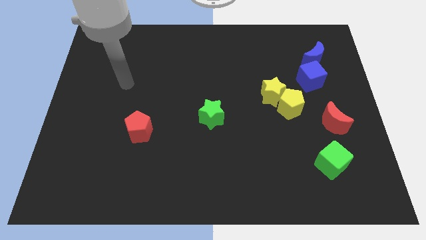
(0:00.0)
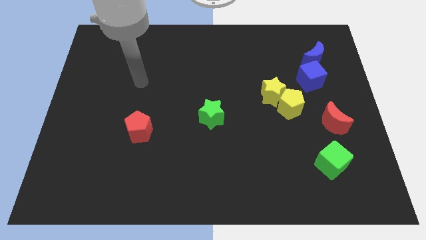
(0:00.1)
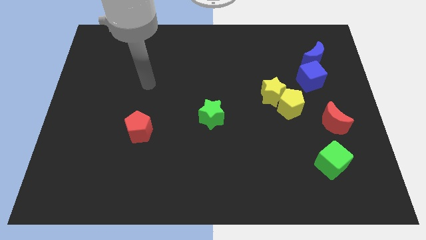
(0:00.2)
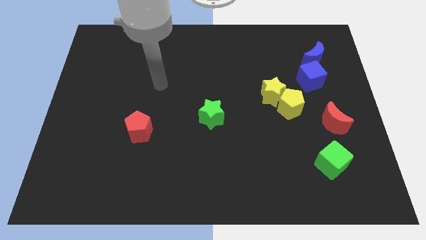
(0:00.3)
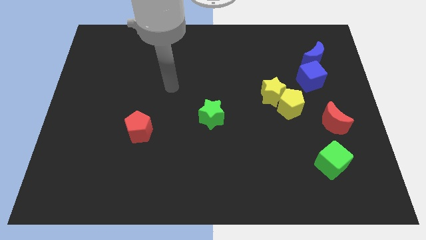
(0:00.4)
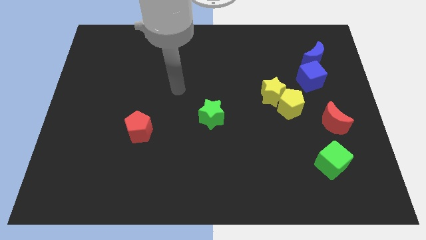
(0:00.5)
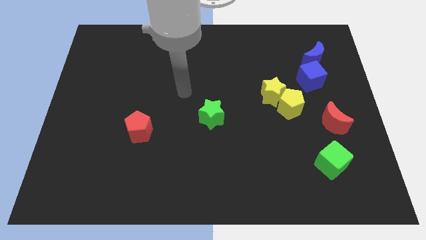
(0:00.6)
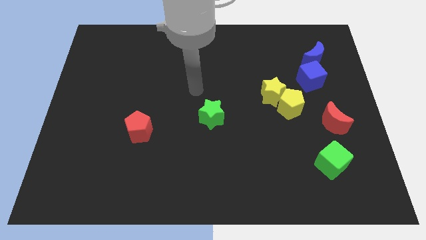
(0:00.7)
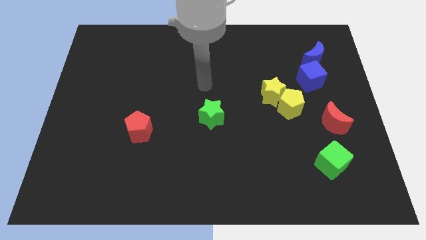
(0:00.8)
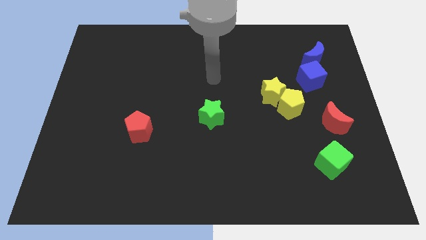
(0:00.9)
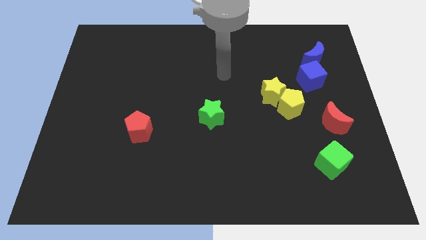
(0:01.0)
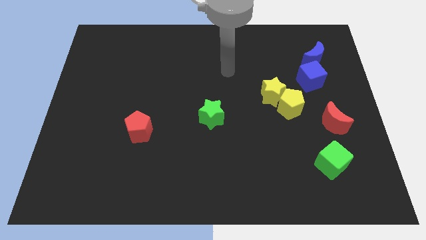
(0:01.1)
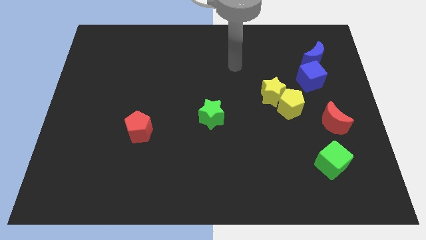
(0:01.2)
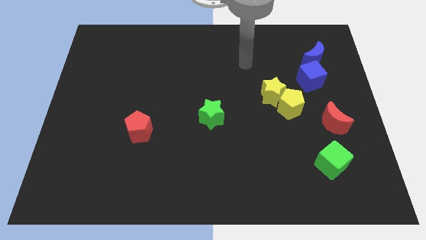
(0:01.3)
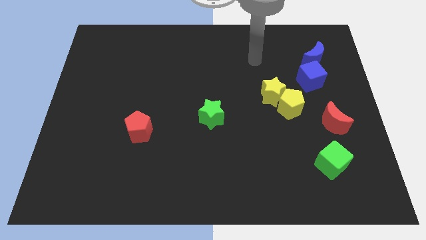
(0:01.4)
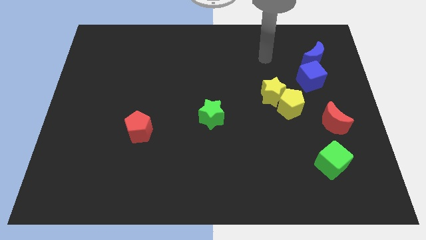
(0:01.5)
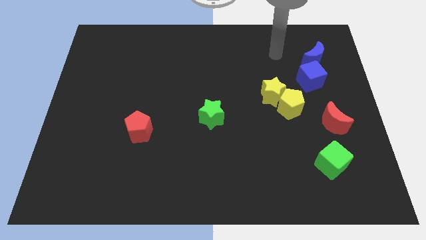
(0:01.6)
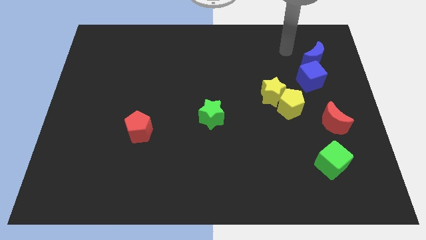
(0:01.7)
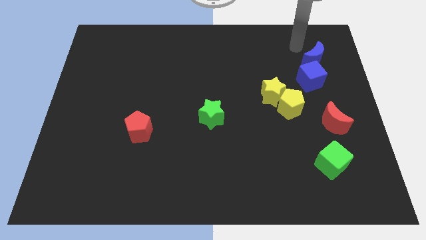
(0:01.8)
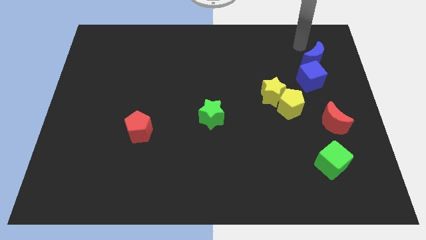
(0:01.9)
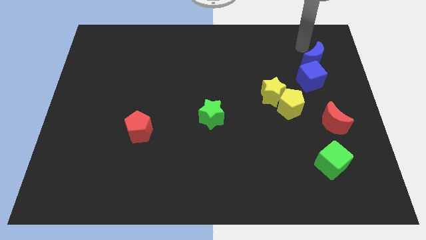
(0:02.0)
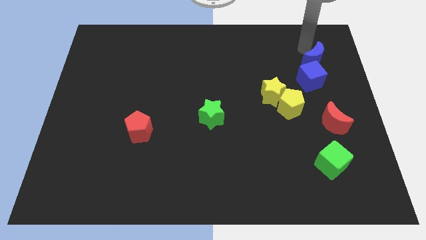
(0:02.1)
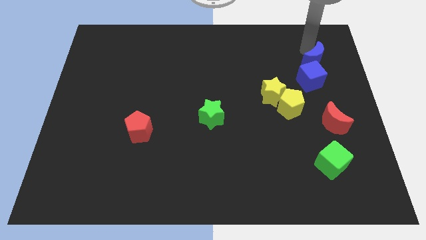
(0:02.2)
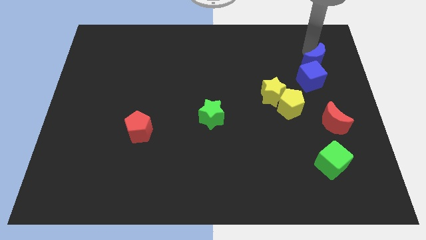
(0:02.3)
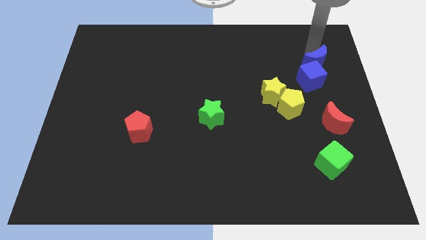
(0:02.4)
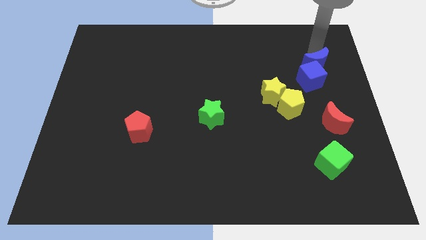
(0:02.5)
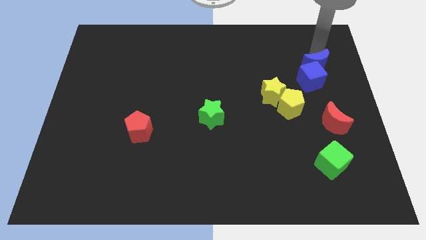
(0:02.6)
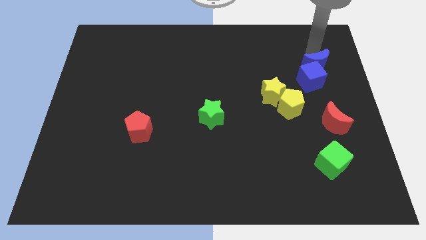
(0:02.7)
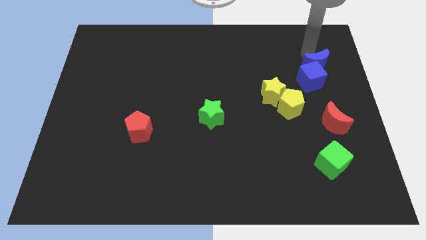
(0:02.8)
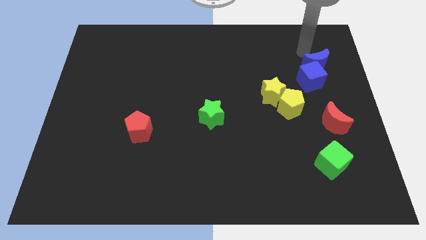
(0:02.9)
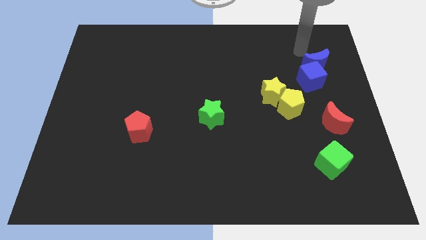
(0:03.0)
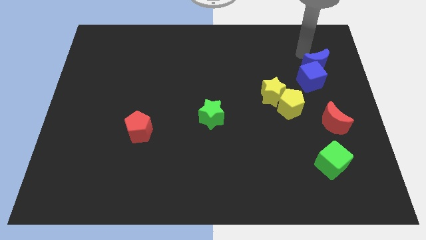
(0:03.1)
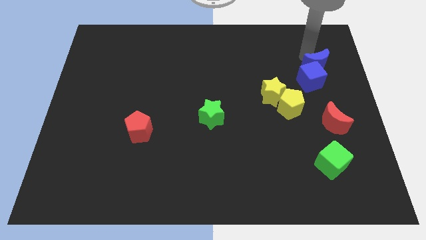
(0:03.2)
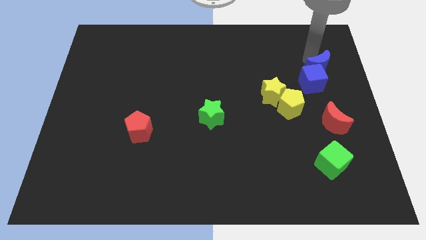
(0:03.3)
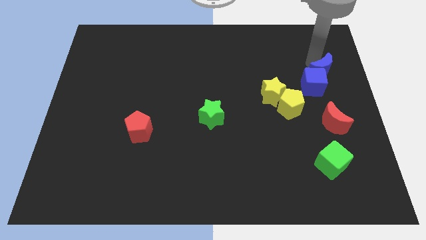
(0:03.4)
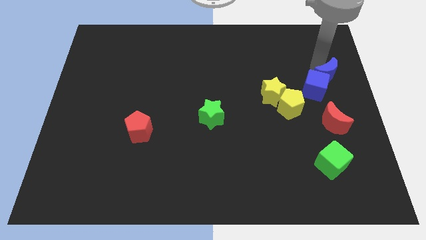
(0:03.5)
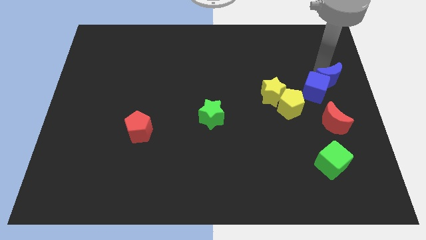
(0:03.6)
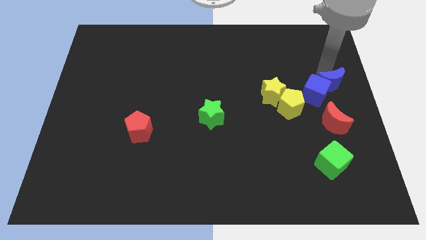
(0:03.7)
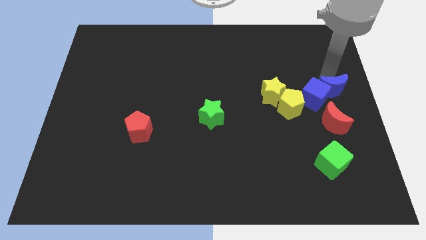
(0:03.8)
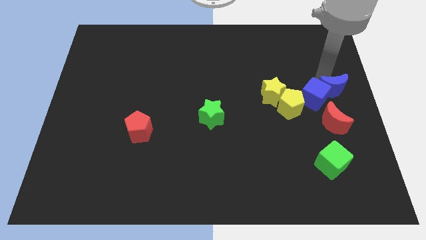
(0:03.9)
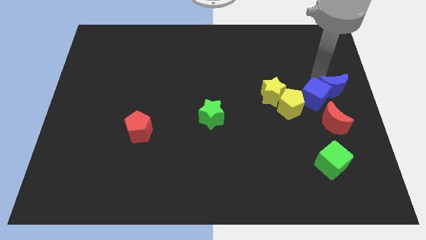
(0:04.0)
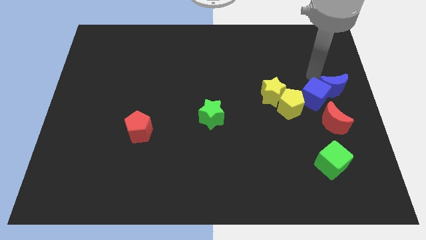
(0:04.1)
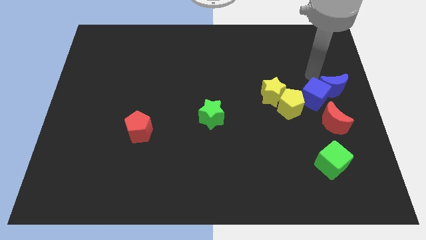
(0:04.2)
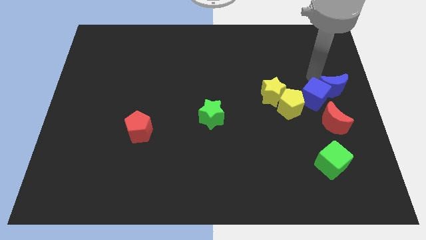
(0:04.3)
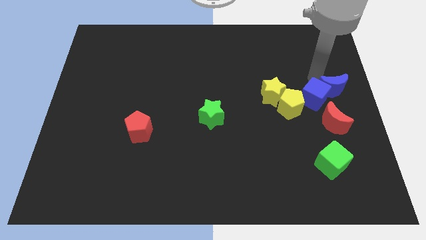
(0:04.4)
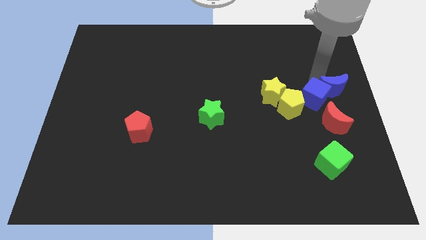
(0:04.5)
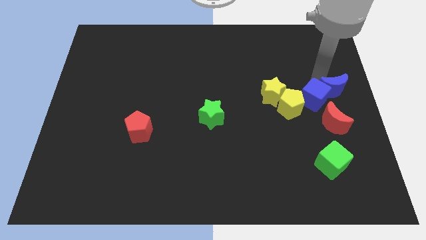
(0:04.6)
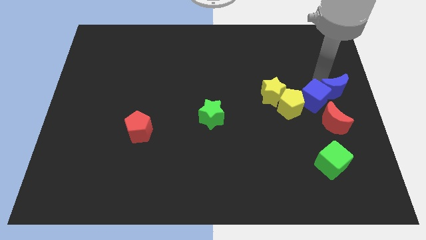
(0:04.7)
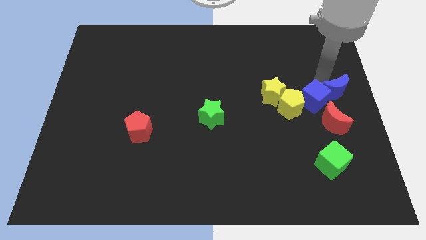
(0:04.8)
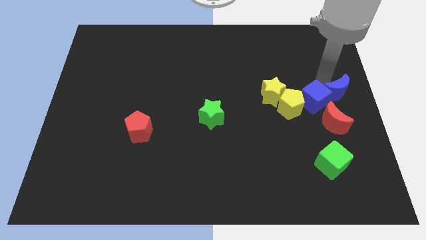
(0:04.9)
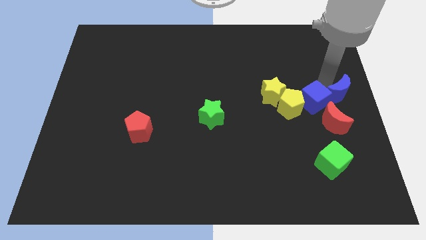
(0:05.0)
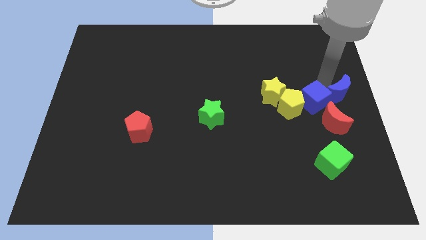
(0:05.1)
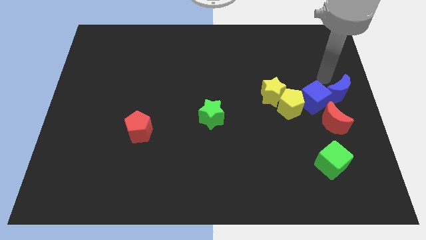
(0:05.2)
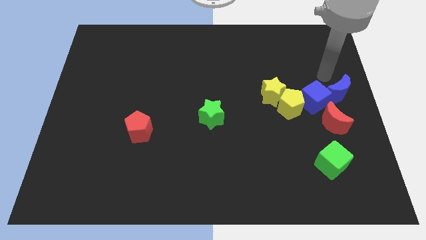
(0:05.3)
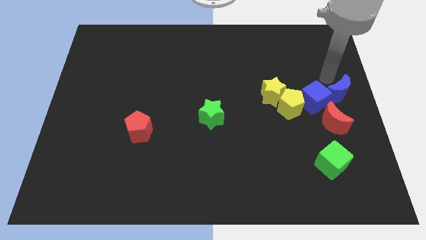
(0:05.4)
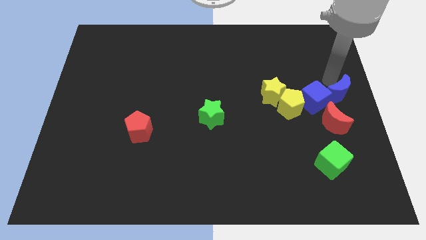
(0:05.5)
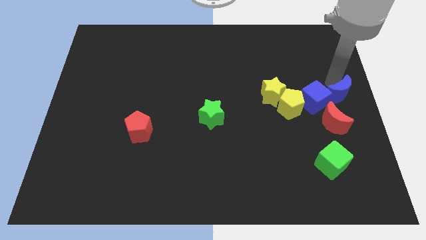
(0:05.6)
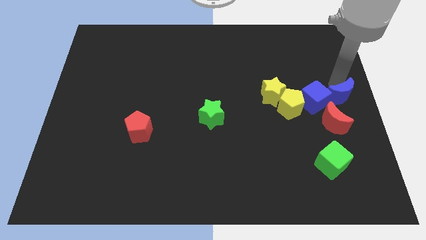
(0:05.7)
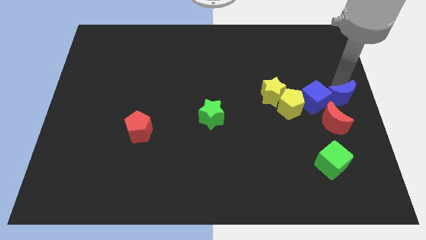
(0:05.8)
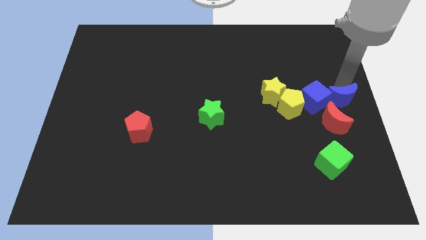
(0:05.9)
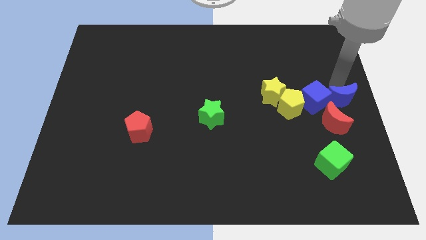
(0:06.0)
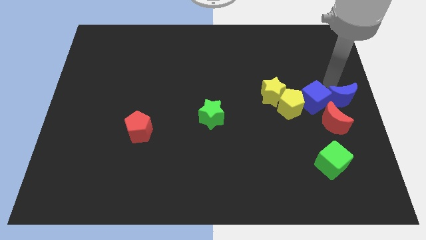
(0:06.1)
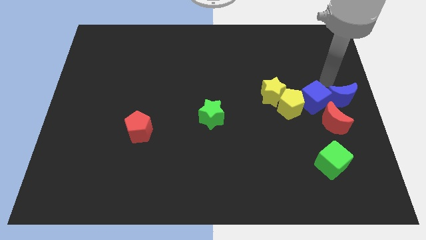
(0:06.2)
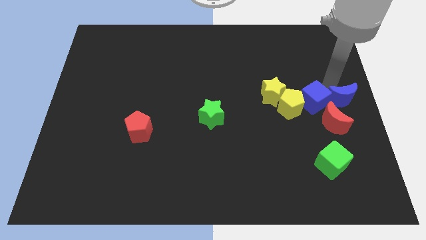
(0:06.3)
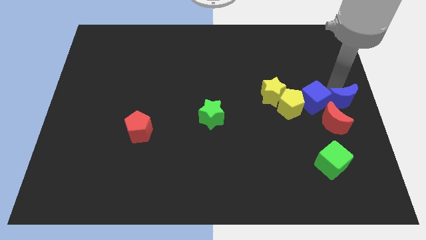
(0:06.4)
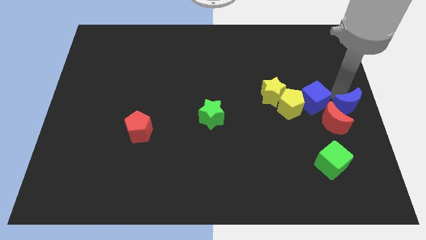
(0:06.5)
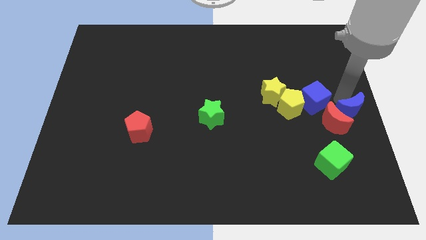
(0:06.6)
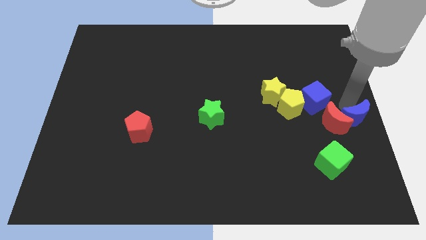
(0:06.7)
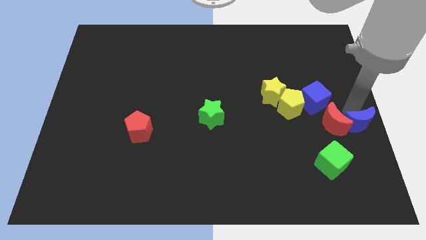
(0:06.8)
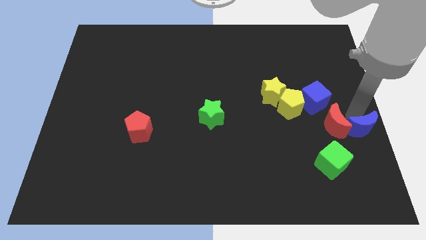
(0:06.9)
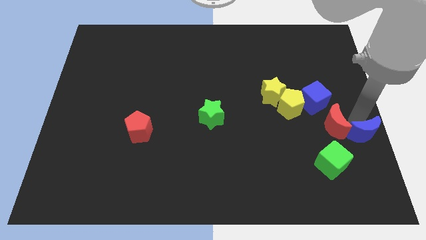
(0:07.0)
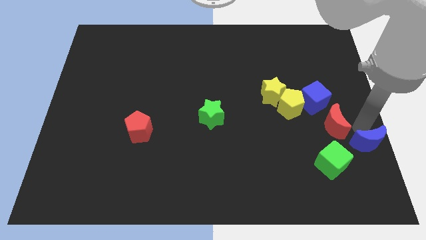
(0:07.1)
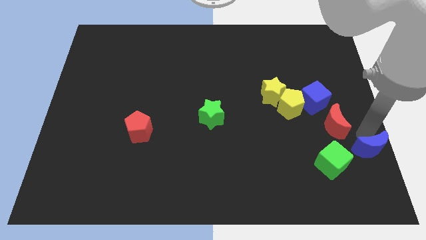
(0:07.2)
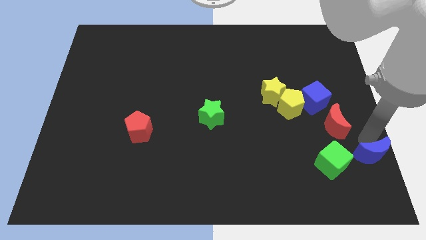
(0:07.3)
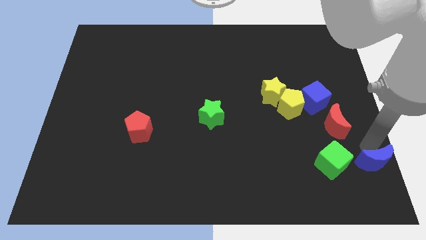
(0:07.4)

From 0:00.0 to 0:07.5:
slide the blue moon to the lower right corner
